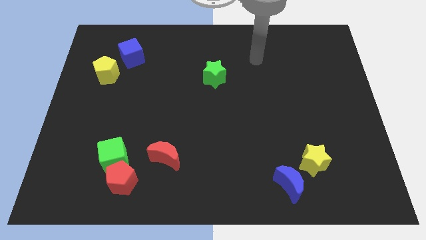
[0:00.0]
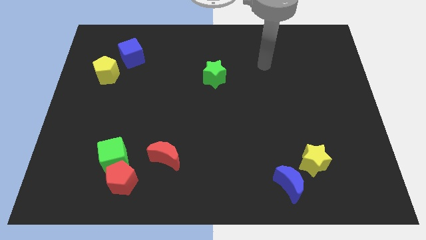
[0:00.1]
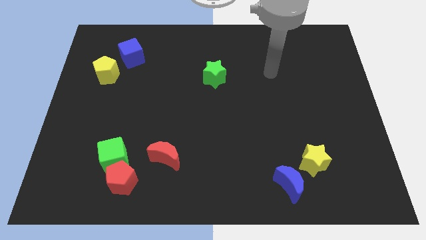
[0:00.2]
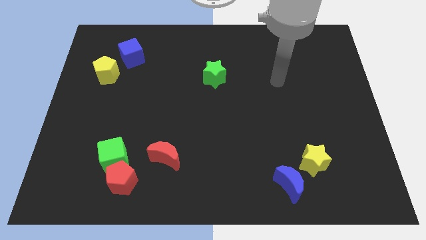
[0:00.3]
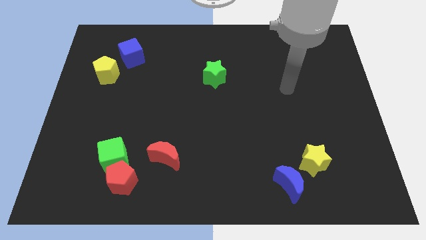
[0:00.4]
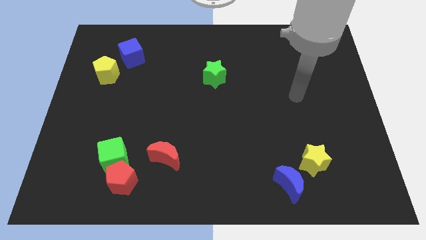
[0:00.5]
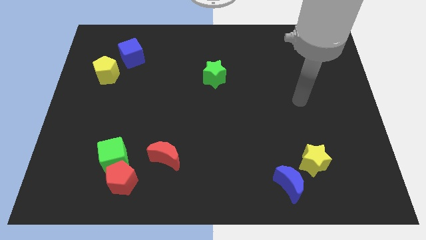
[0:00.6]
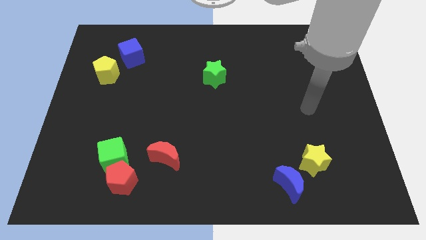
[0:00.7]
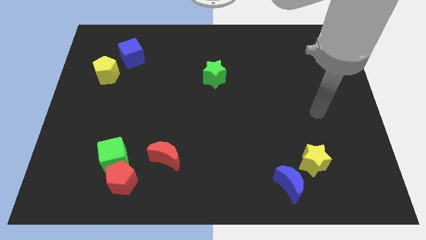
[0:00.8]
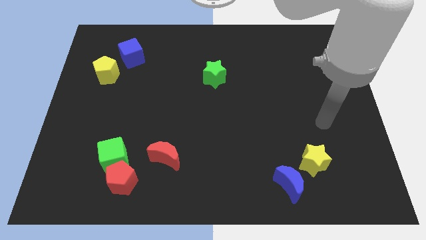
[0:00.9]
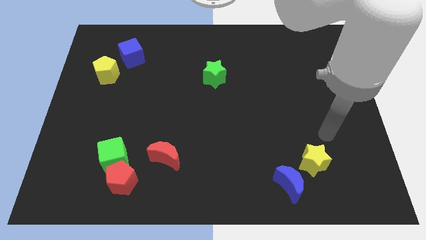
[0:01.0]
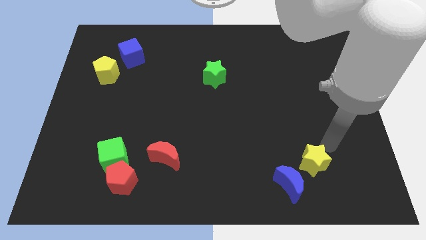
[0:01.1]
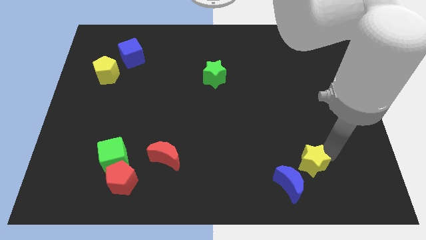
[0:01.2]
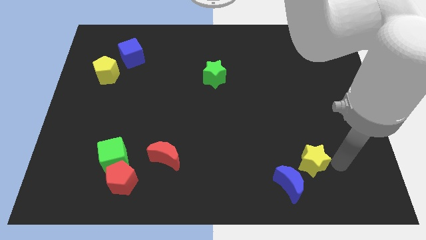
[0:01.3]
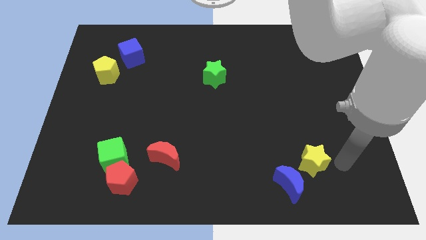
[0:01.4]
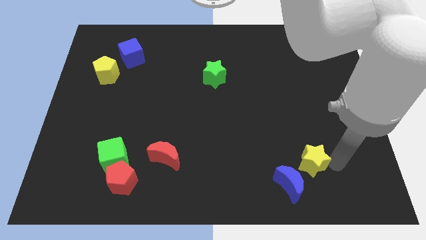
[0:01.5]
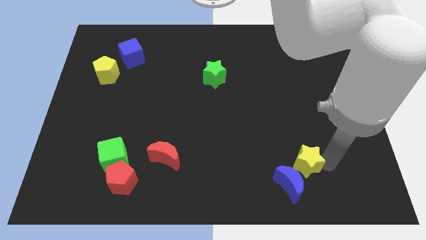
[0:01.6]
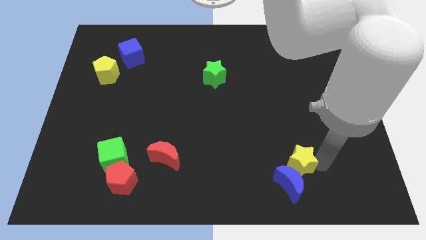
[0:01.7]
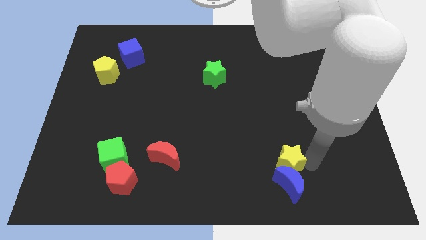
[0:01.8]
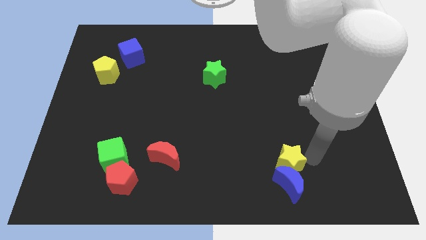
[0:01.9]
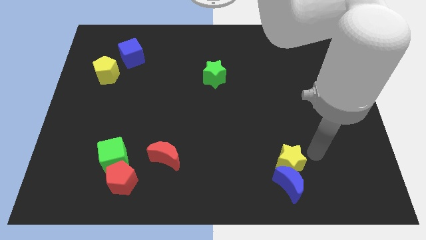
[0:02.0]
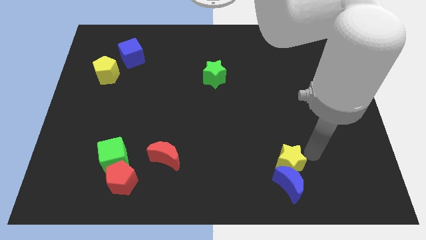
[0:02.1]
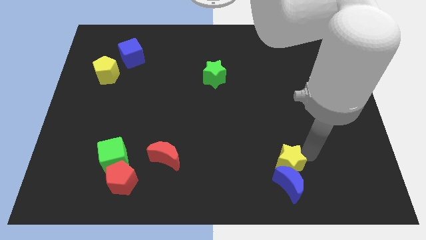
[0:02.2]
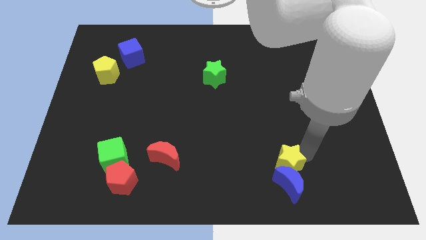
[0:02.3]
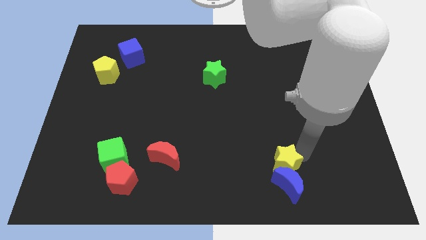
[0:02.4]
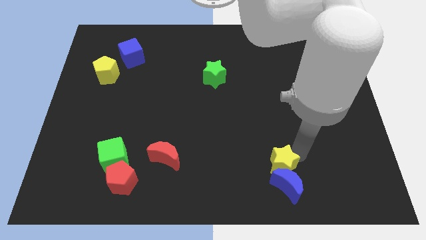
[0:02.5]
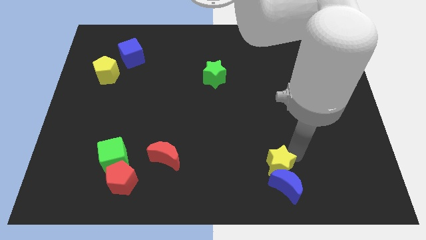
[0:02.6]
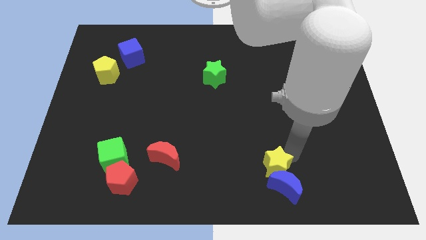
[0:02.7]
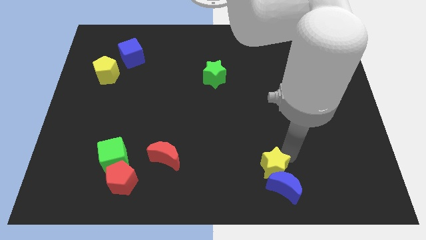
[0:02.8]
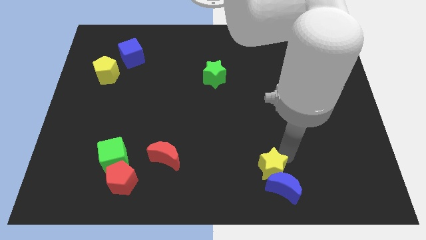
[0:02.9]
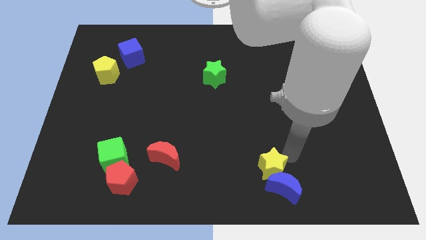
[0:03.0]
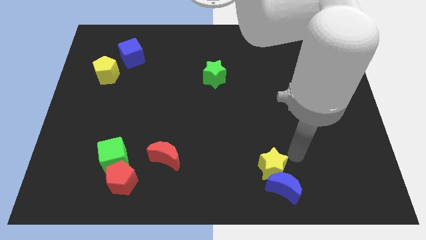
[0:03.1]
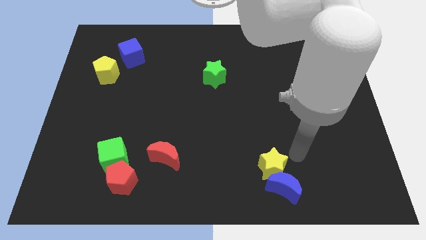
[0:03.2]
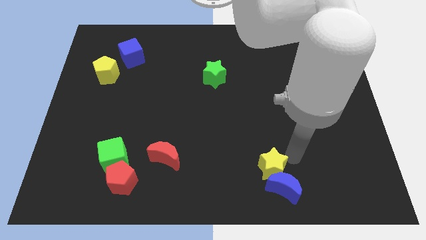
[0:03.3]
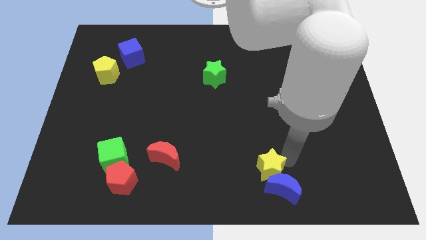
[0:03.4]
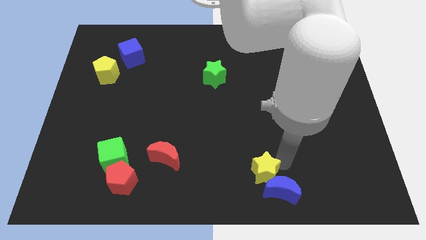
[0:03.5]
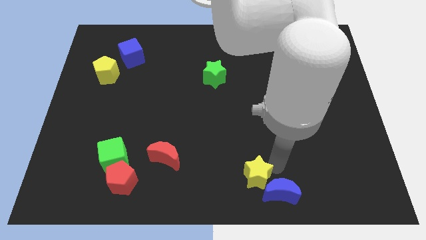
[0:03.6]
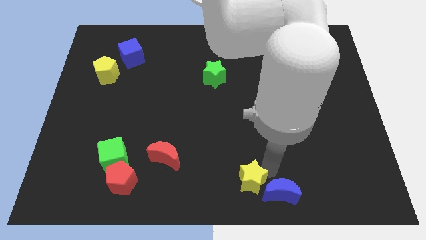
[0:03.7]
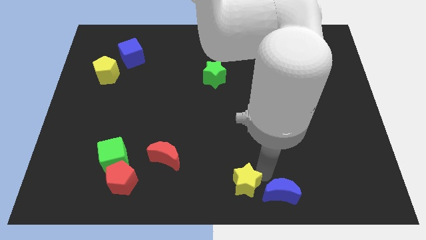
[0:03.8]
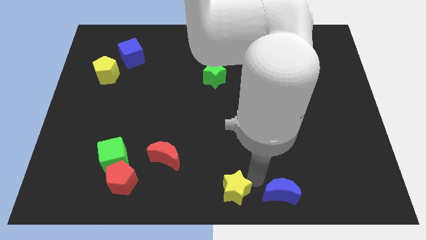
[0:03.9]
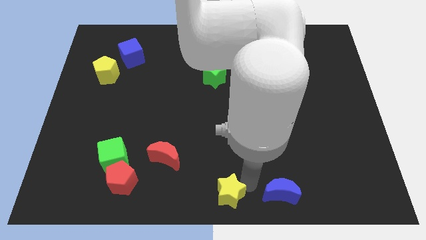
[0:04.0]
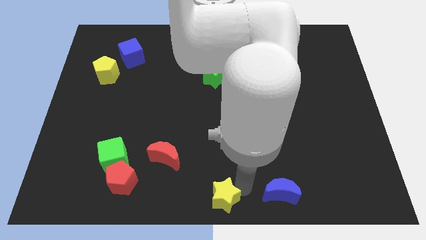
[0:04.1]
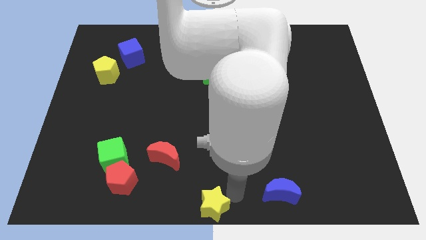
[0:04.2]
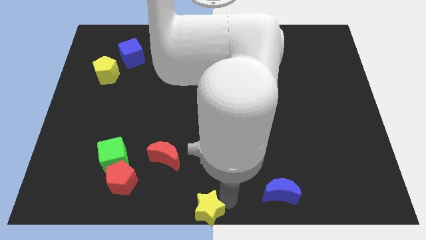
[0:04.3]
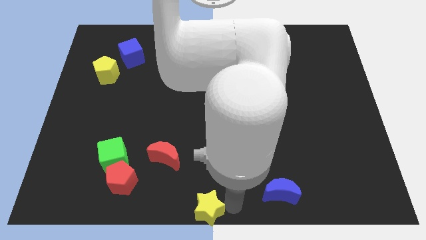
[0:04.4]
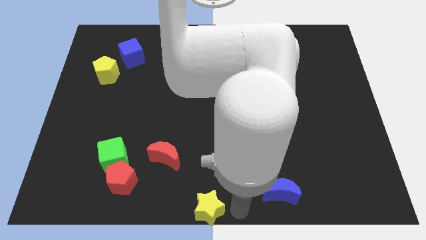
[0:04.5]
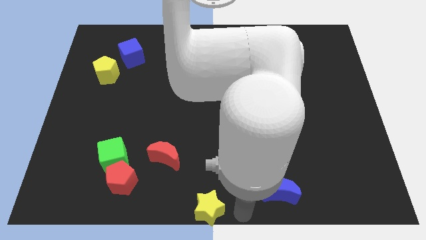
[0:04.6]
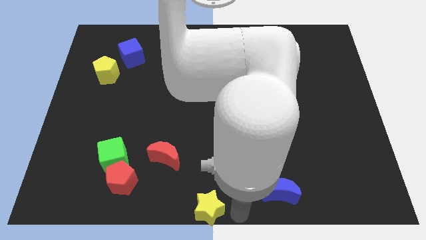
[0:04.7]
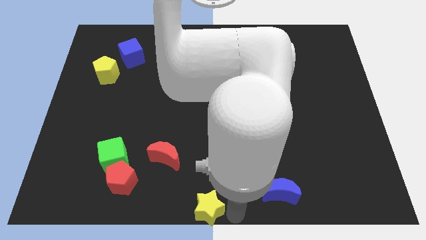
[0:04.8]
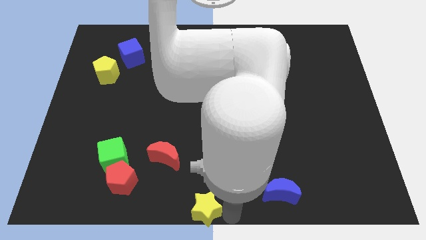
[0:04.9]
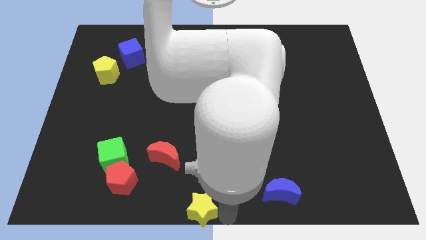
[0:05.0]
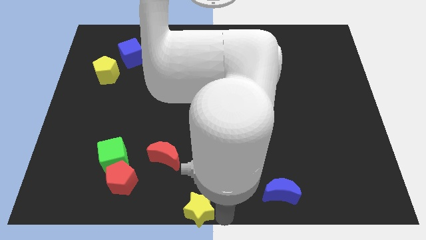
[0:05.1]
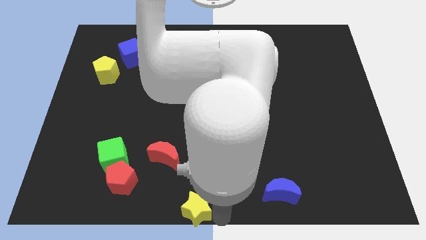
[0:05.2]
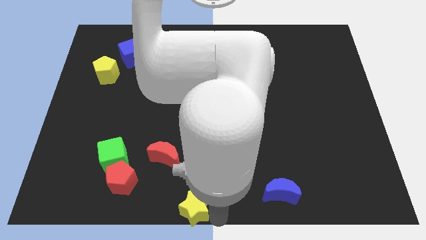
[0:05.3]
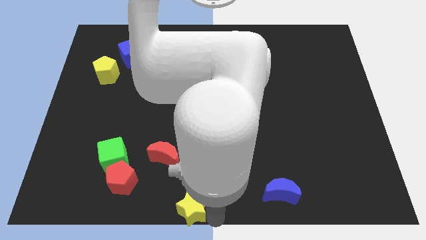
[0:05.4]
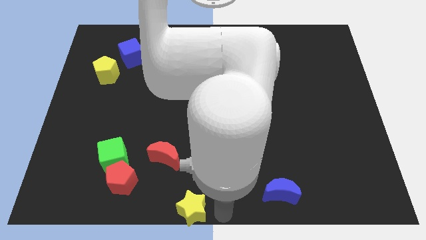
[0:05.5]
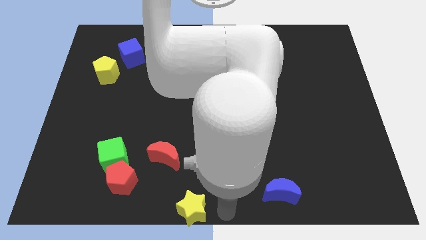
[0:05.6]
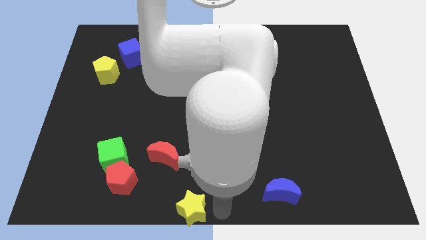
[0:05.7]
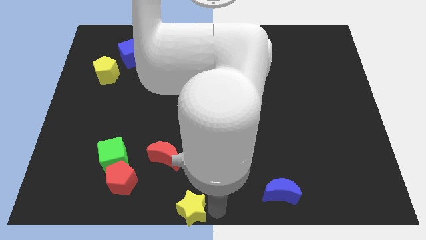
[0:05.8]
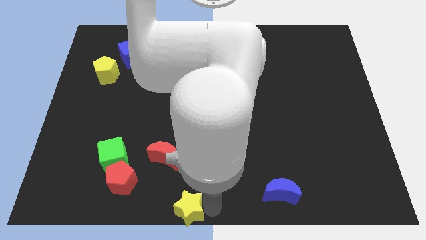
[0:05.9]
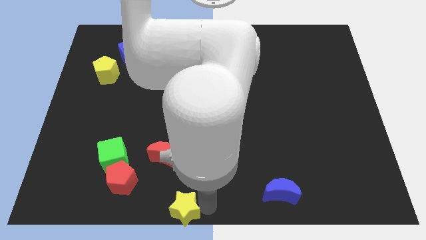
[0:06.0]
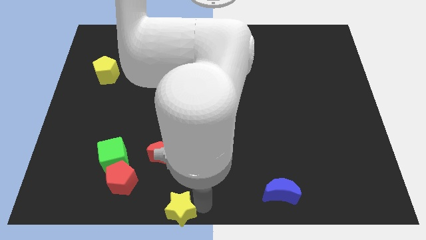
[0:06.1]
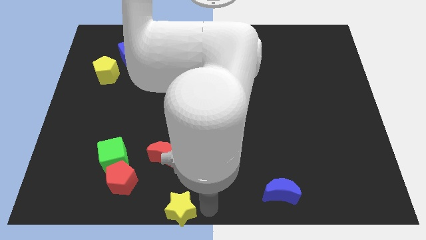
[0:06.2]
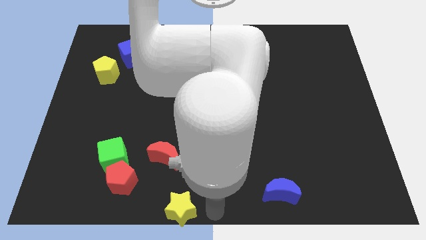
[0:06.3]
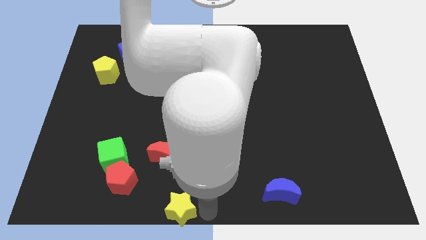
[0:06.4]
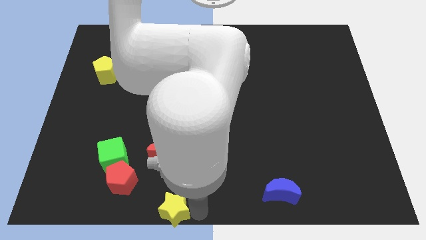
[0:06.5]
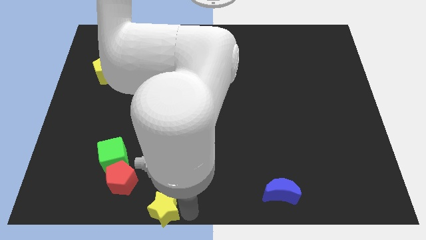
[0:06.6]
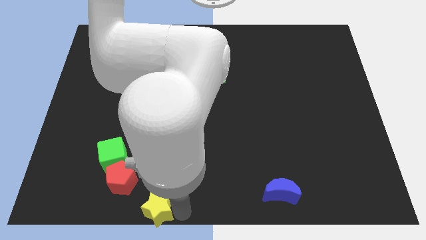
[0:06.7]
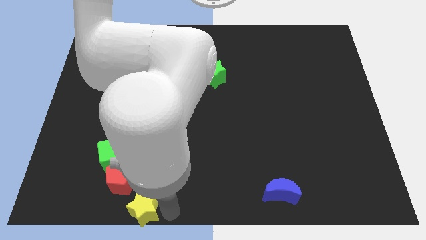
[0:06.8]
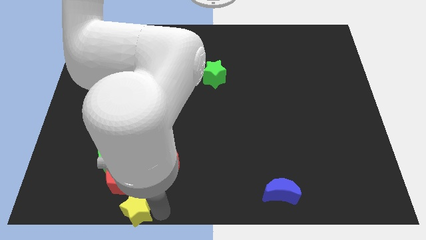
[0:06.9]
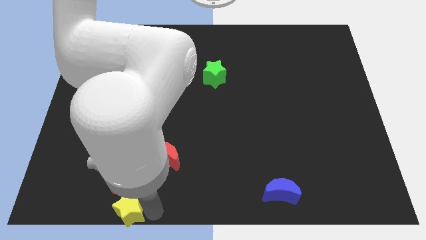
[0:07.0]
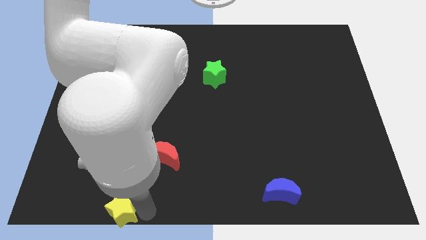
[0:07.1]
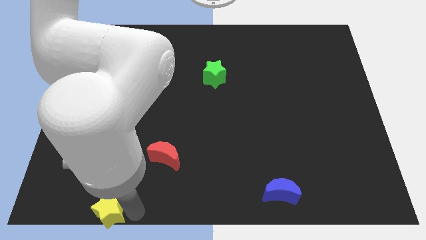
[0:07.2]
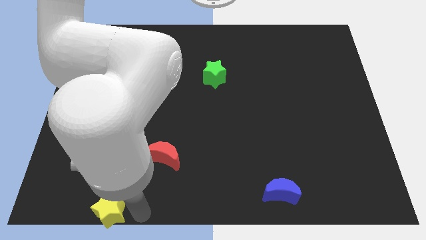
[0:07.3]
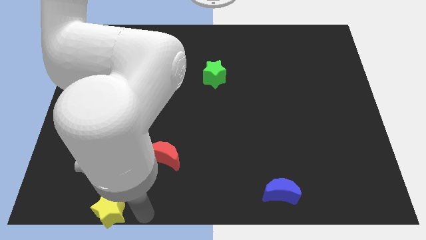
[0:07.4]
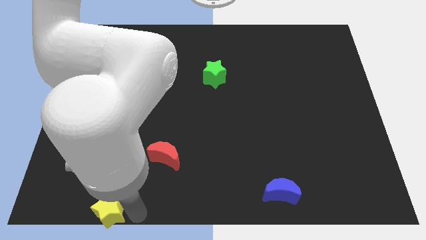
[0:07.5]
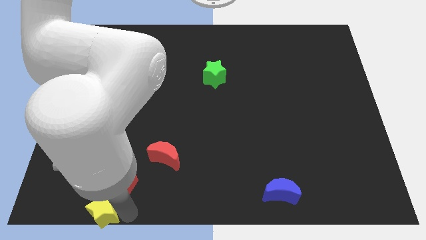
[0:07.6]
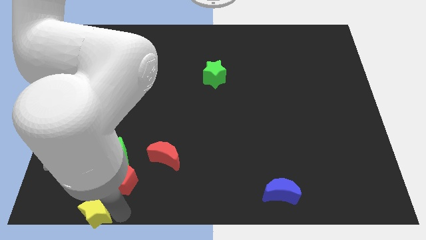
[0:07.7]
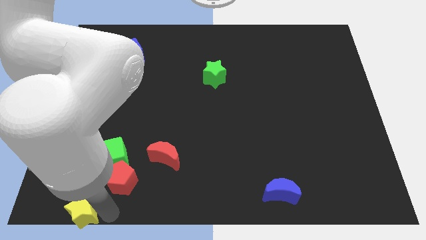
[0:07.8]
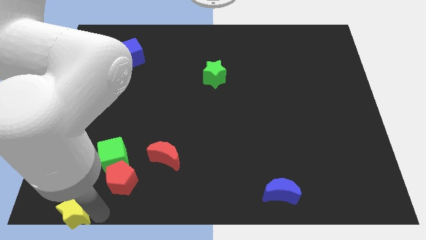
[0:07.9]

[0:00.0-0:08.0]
slide the yellow star to the bottom left corner
